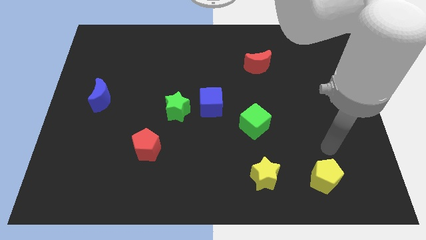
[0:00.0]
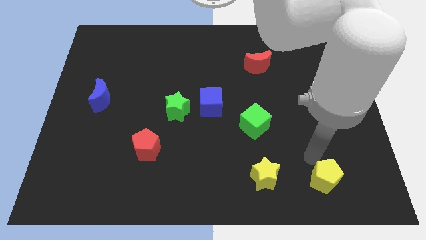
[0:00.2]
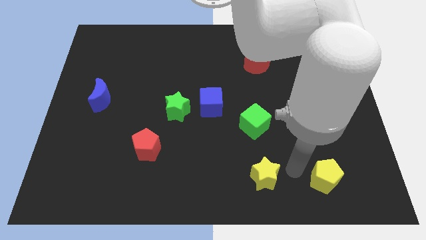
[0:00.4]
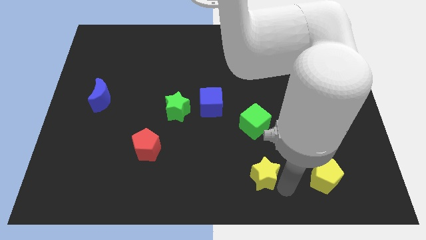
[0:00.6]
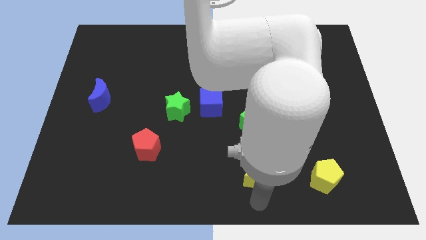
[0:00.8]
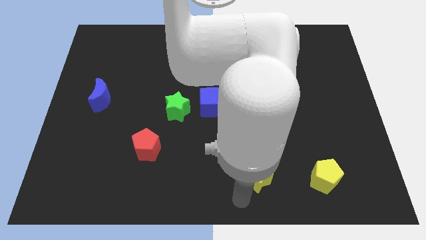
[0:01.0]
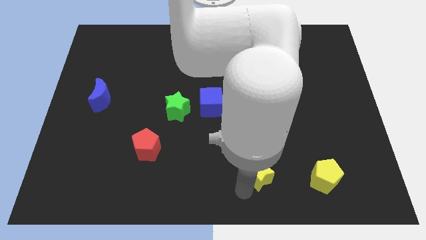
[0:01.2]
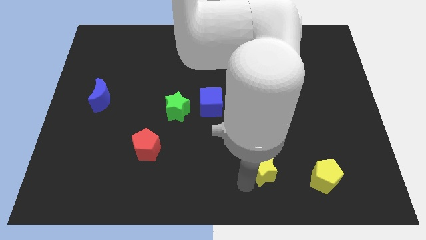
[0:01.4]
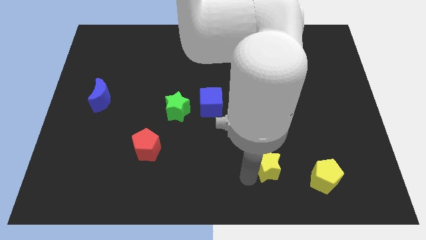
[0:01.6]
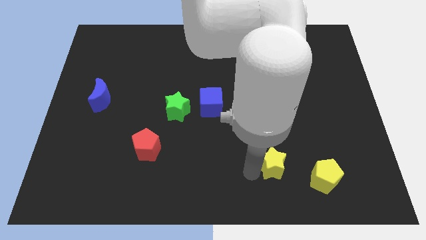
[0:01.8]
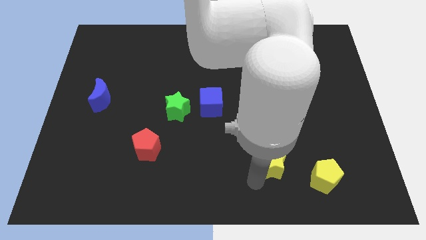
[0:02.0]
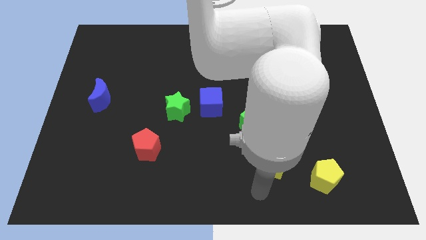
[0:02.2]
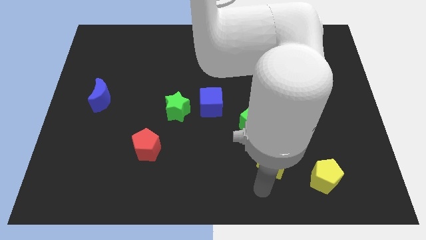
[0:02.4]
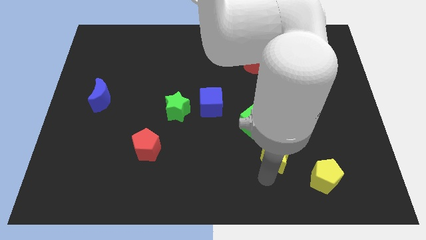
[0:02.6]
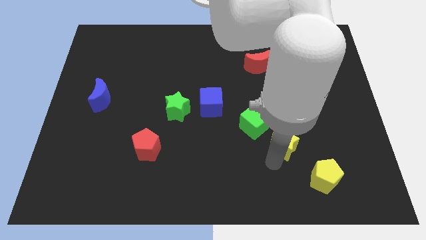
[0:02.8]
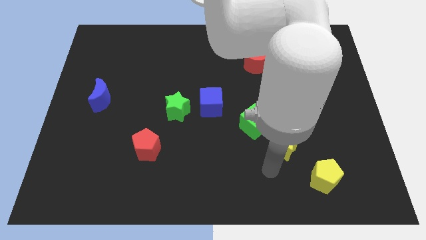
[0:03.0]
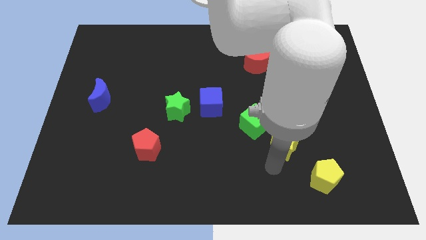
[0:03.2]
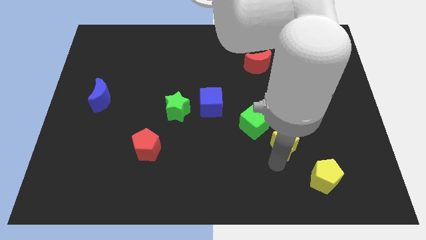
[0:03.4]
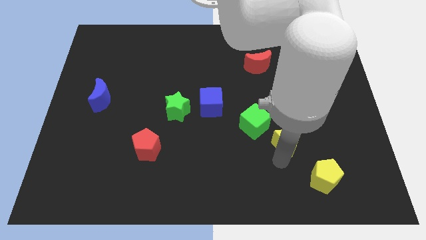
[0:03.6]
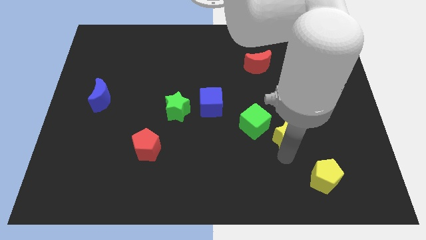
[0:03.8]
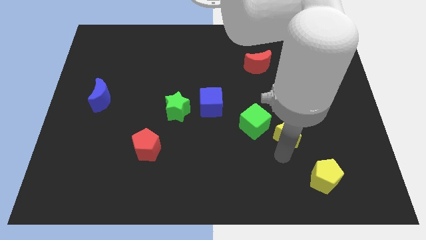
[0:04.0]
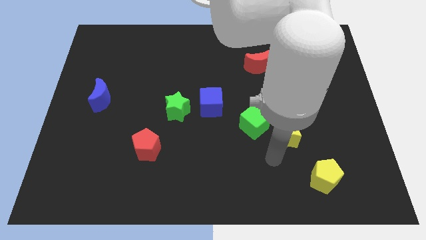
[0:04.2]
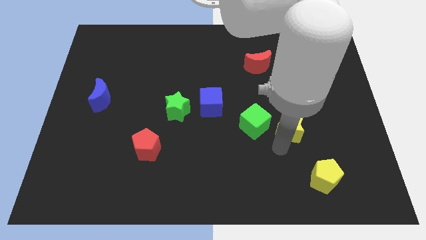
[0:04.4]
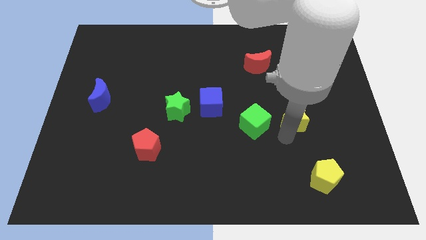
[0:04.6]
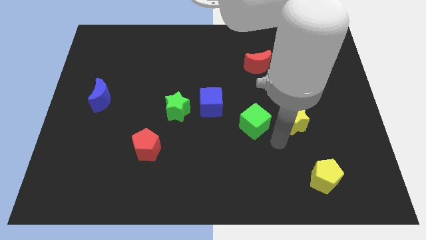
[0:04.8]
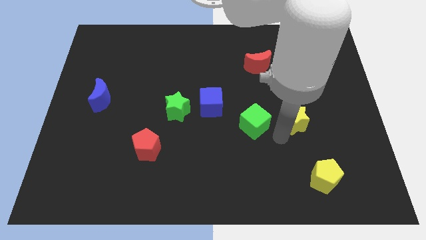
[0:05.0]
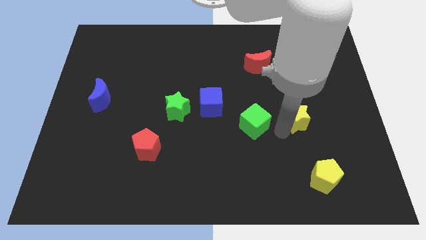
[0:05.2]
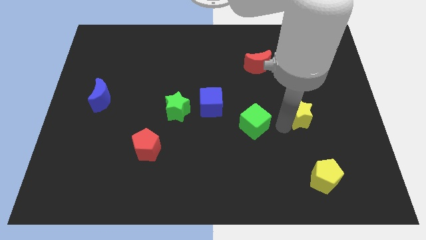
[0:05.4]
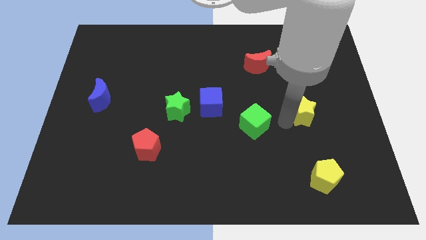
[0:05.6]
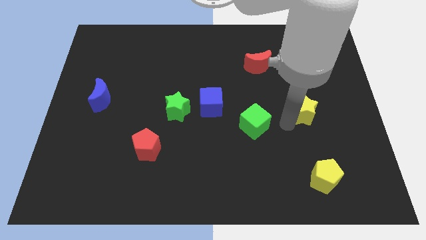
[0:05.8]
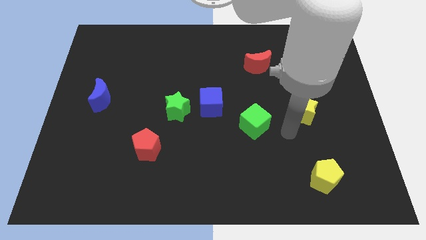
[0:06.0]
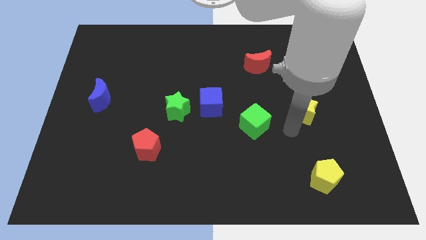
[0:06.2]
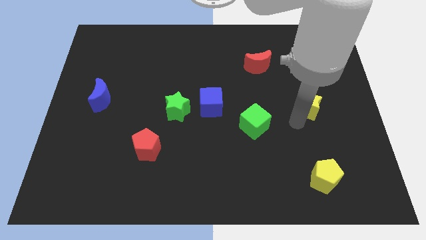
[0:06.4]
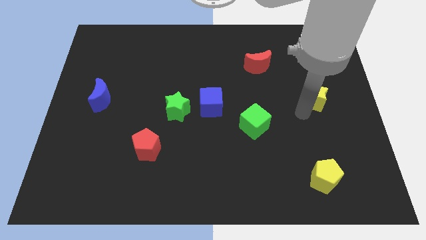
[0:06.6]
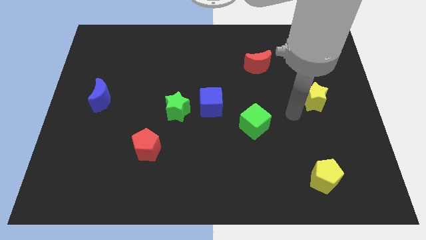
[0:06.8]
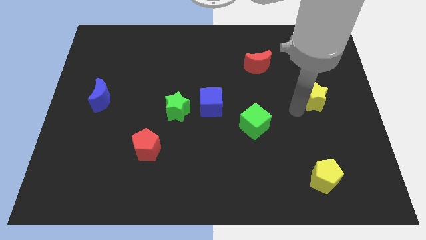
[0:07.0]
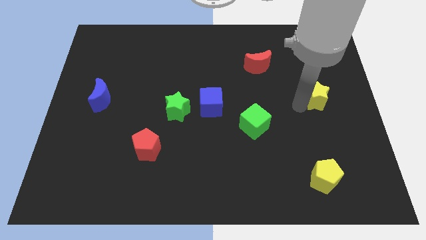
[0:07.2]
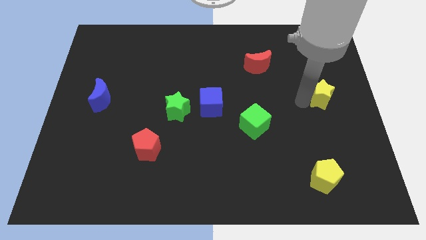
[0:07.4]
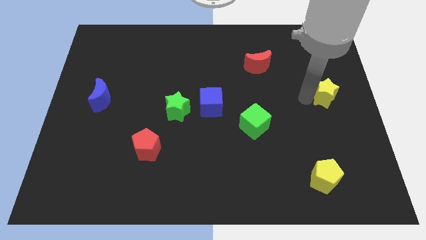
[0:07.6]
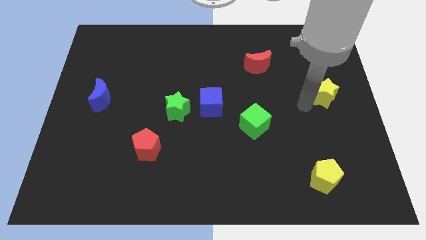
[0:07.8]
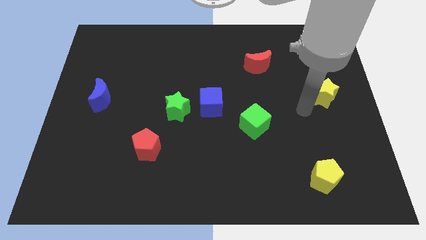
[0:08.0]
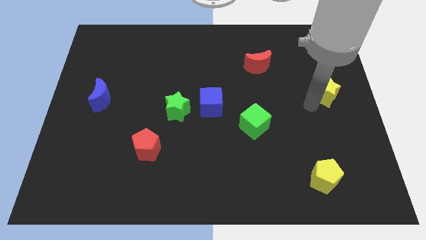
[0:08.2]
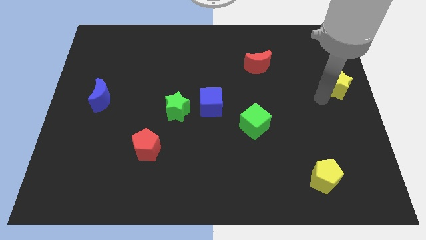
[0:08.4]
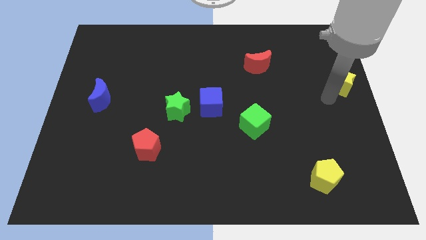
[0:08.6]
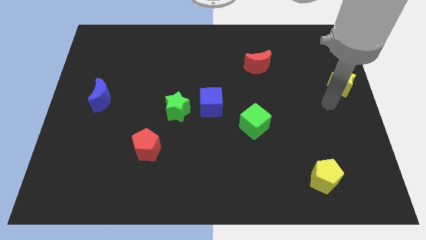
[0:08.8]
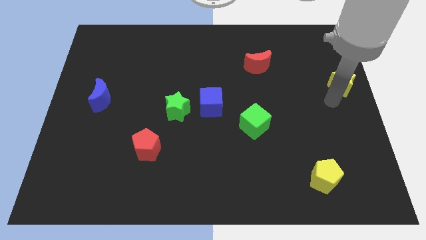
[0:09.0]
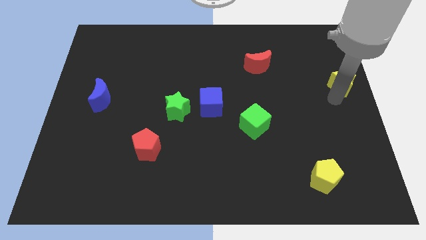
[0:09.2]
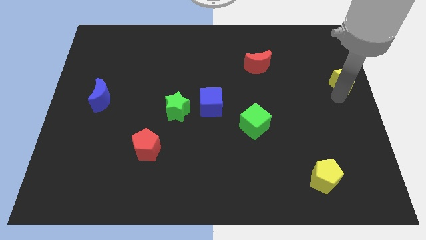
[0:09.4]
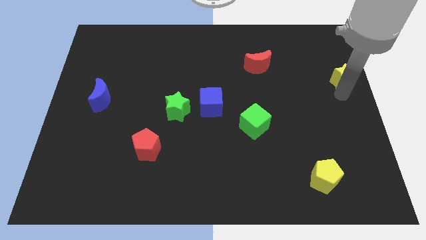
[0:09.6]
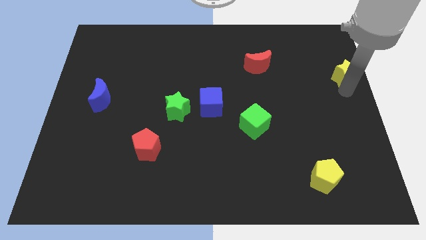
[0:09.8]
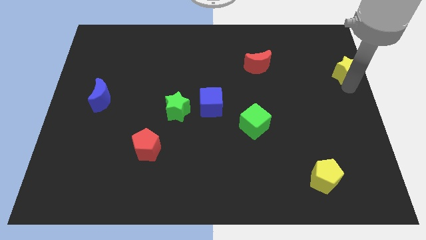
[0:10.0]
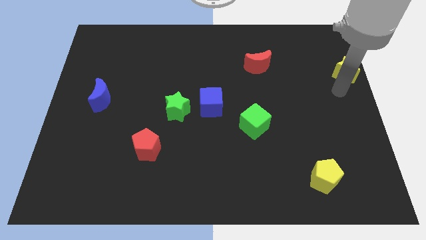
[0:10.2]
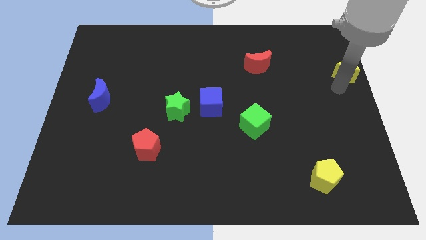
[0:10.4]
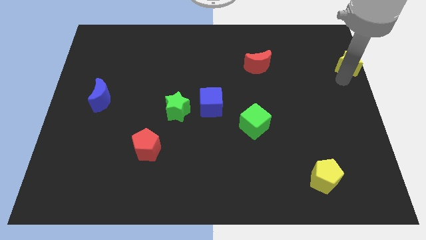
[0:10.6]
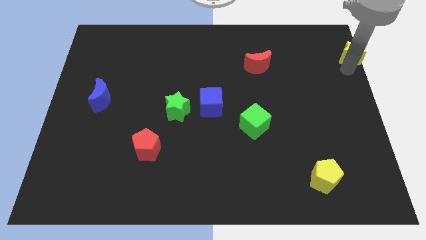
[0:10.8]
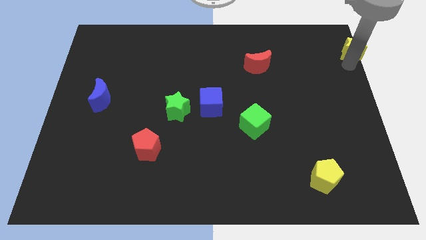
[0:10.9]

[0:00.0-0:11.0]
push the yellow star to the top right corner

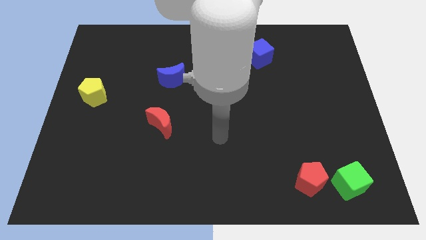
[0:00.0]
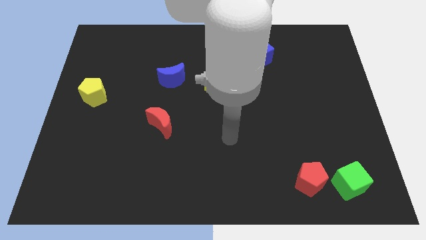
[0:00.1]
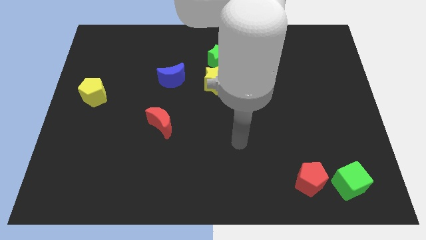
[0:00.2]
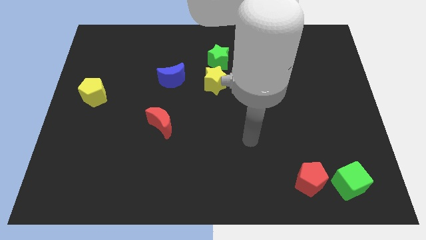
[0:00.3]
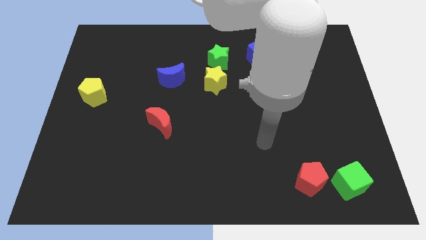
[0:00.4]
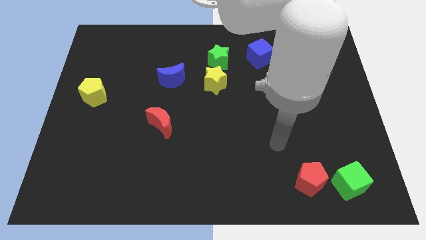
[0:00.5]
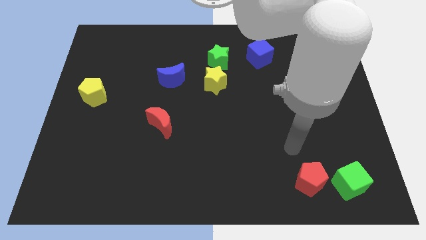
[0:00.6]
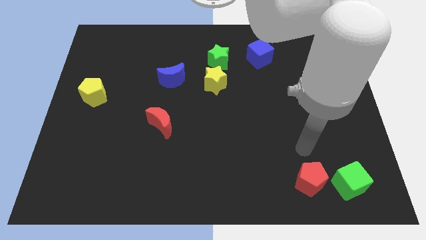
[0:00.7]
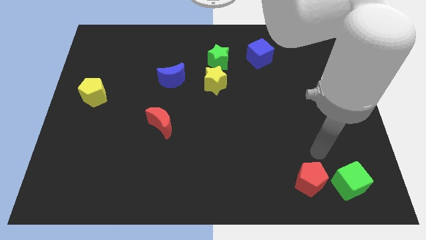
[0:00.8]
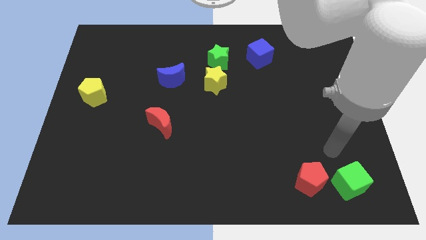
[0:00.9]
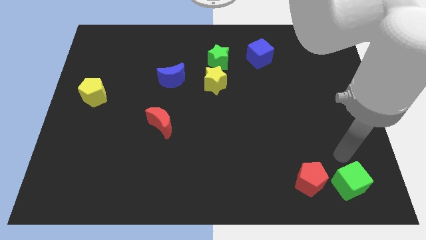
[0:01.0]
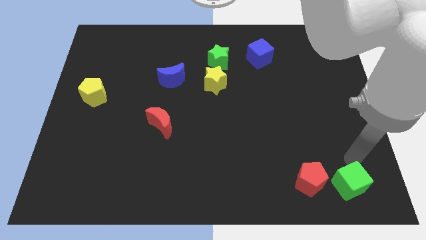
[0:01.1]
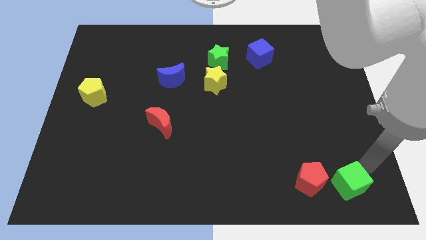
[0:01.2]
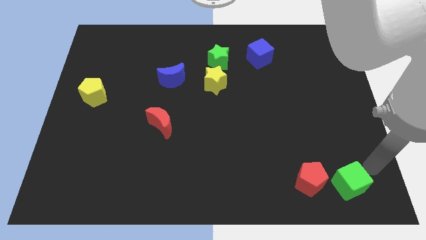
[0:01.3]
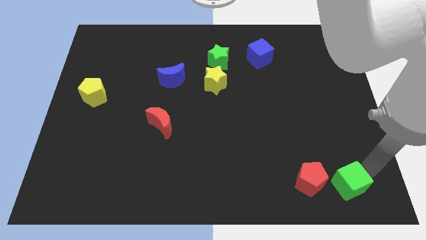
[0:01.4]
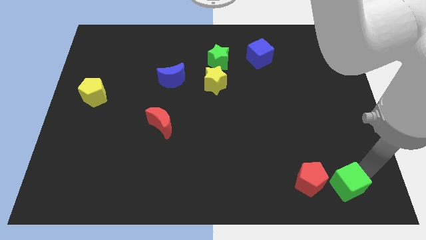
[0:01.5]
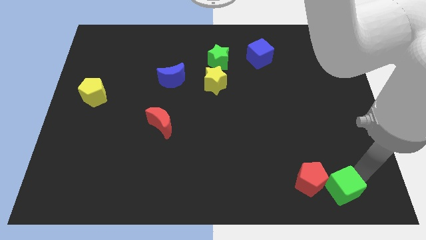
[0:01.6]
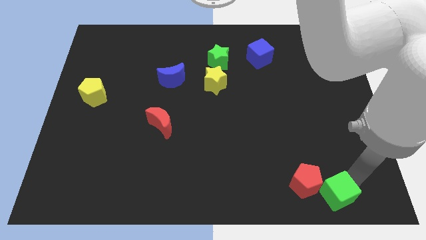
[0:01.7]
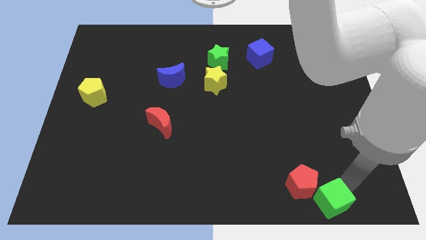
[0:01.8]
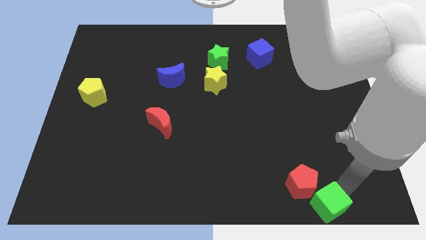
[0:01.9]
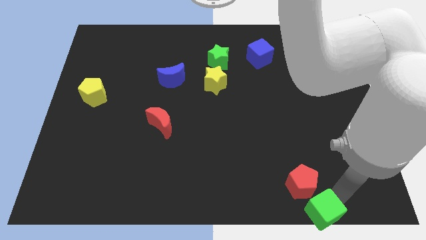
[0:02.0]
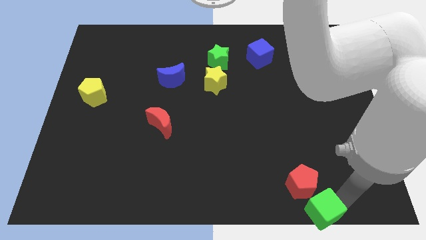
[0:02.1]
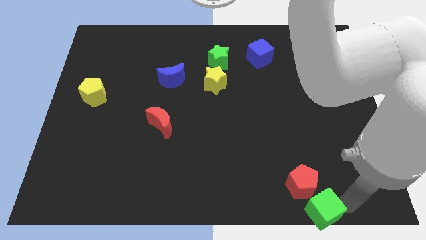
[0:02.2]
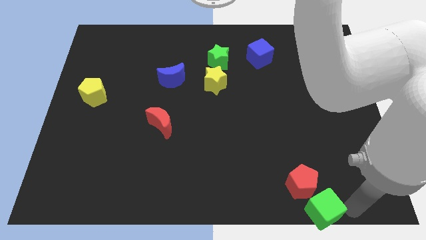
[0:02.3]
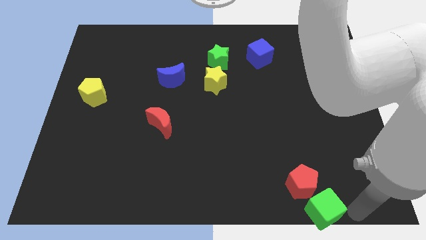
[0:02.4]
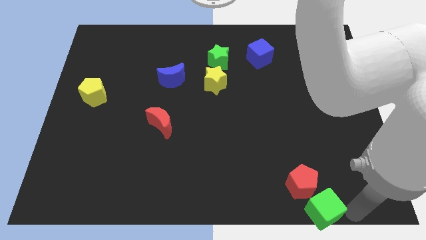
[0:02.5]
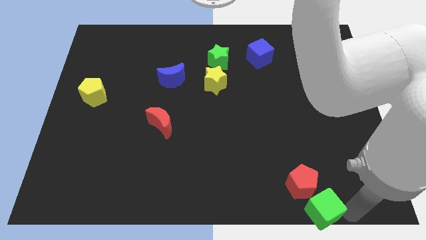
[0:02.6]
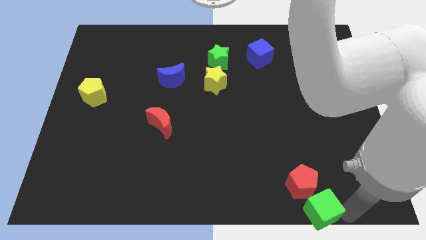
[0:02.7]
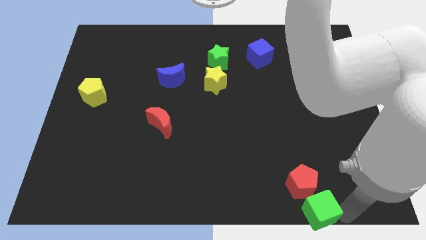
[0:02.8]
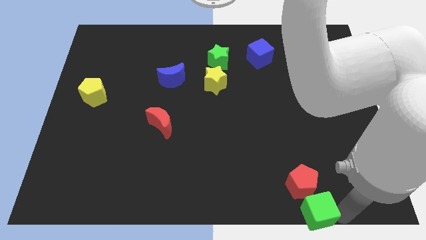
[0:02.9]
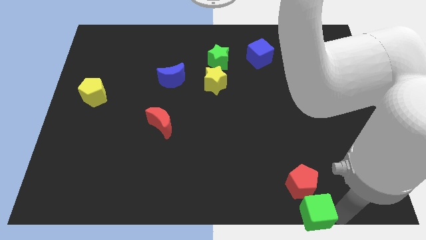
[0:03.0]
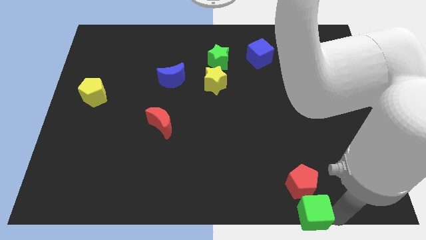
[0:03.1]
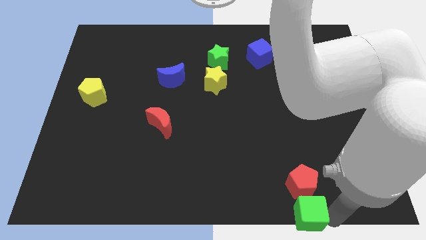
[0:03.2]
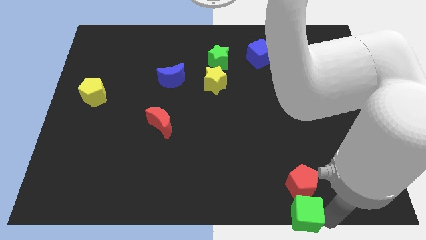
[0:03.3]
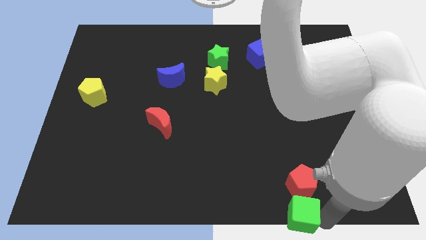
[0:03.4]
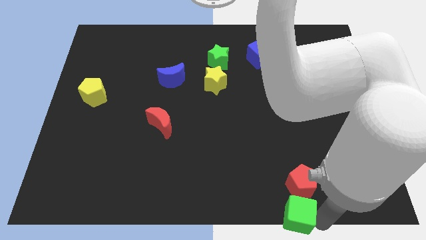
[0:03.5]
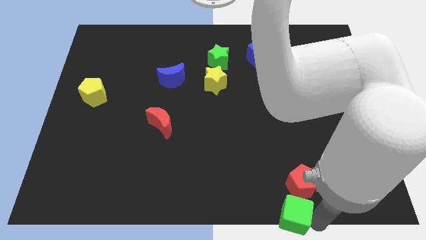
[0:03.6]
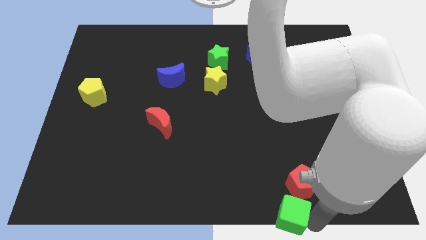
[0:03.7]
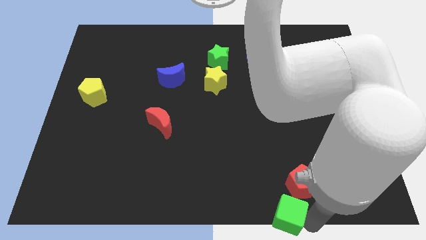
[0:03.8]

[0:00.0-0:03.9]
push the green cube to the bottom
